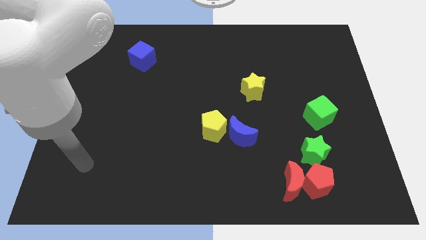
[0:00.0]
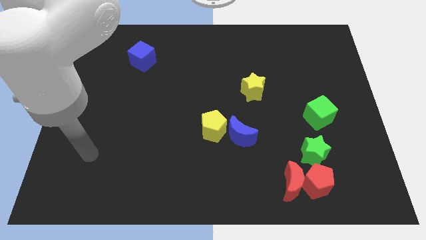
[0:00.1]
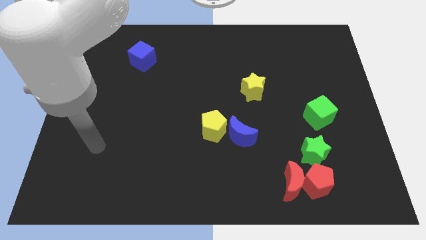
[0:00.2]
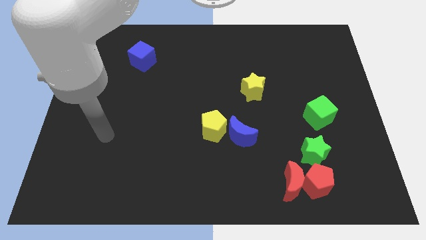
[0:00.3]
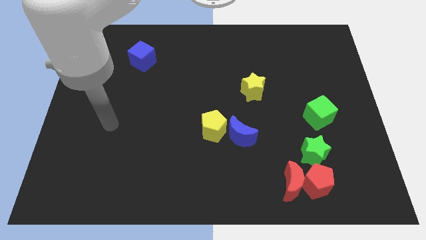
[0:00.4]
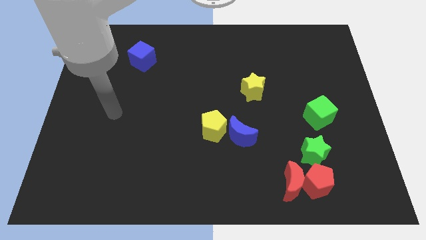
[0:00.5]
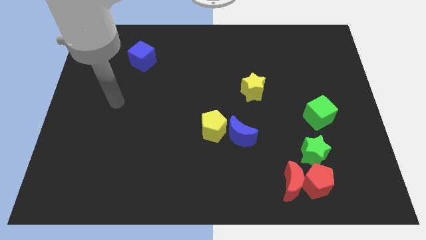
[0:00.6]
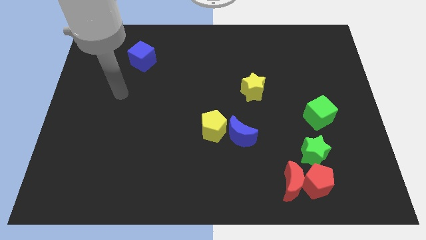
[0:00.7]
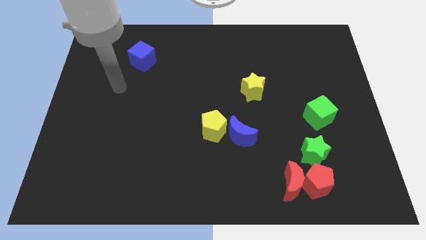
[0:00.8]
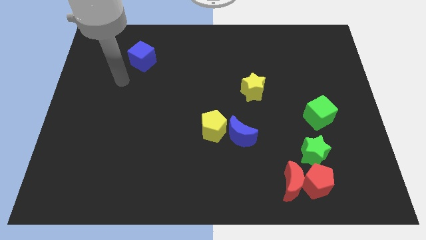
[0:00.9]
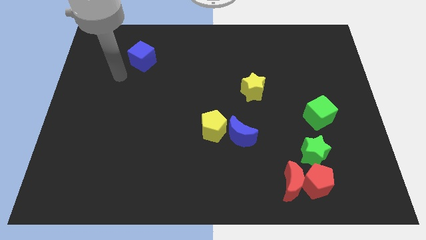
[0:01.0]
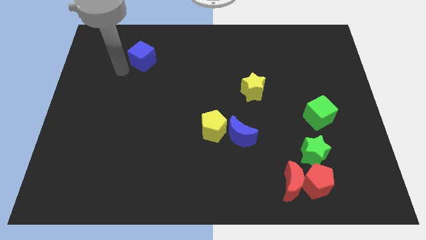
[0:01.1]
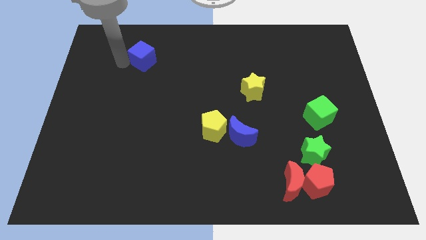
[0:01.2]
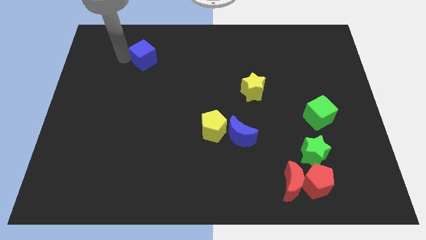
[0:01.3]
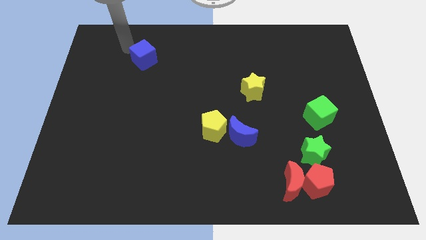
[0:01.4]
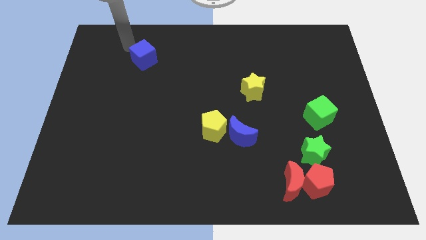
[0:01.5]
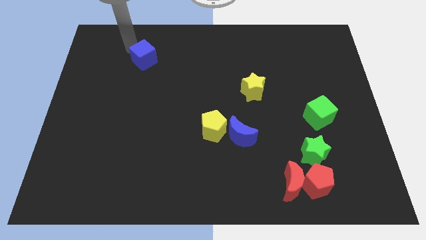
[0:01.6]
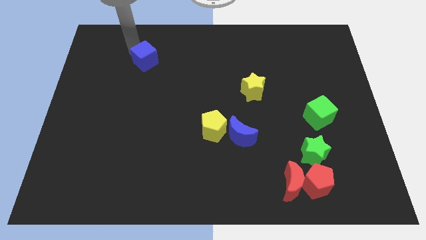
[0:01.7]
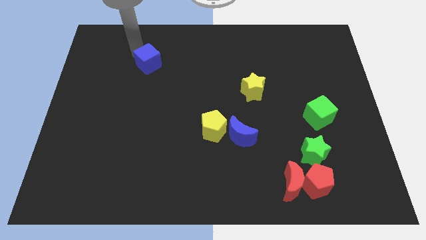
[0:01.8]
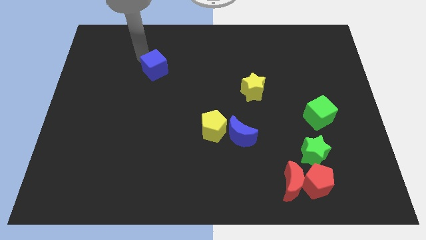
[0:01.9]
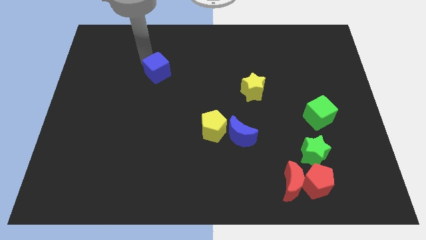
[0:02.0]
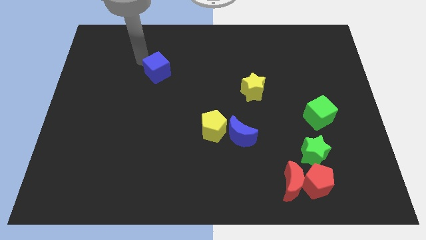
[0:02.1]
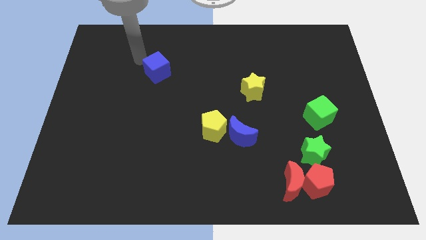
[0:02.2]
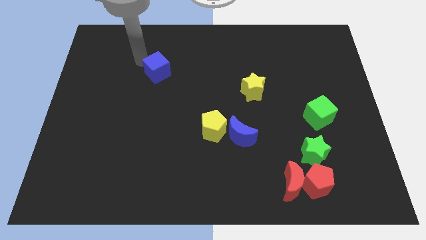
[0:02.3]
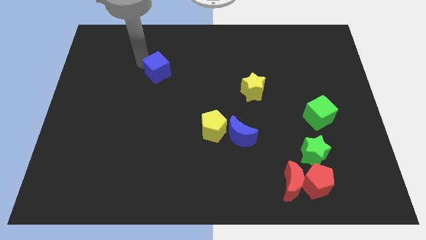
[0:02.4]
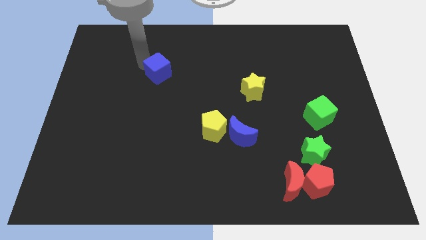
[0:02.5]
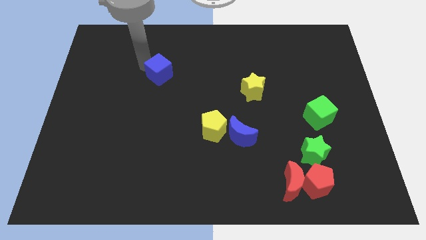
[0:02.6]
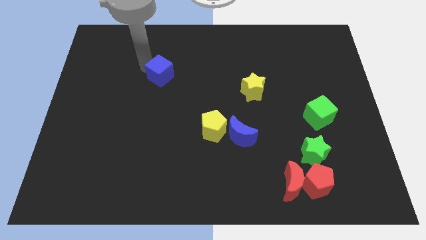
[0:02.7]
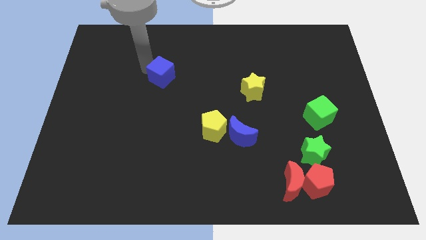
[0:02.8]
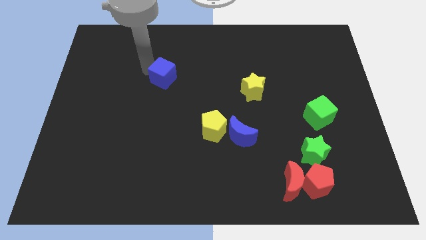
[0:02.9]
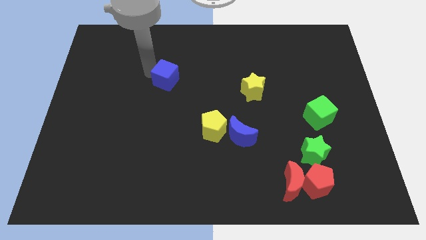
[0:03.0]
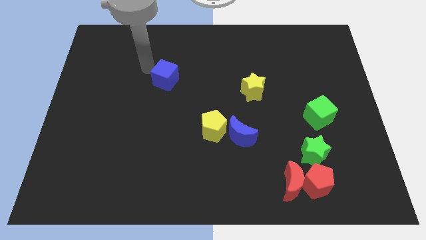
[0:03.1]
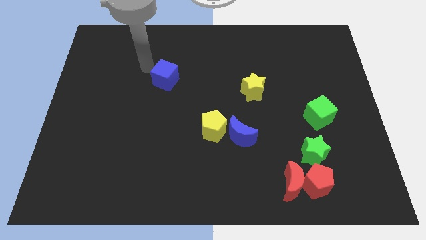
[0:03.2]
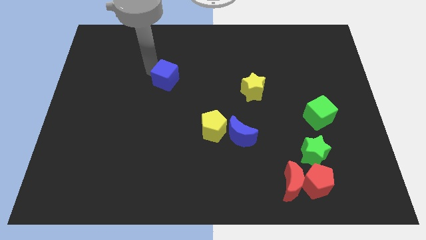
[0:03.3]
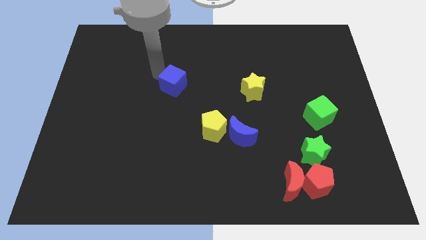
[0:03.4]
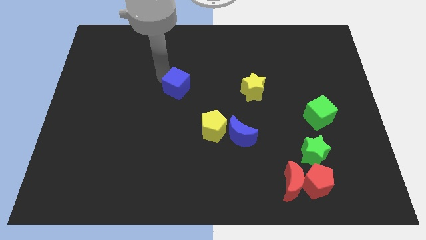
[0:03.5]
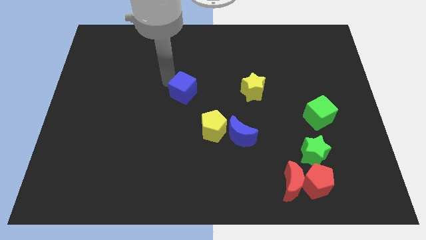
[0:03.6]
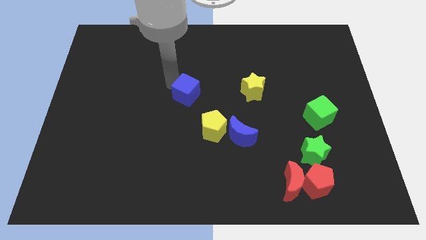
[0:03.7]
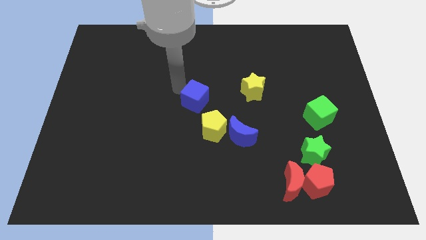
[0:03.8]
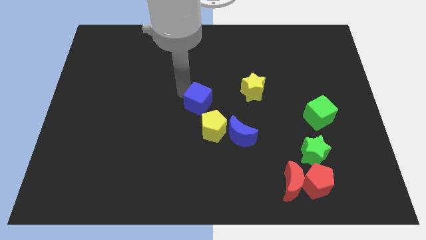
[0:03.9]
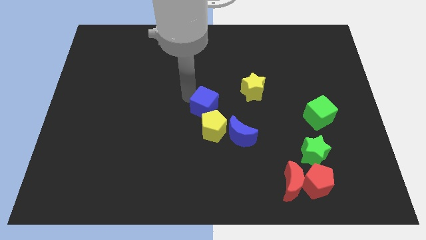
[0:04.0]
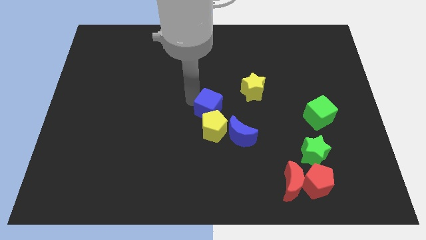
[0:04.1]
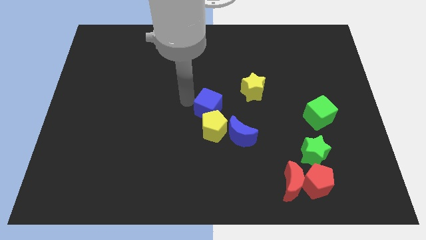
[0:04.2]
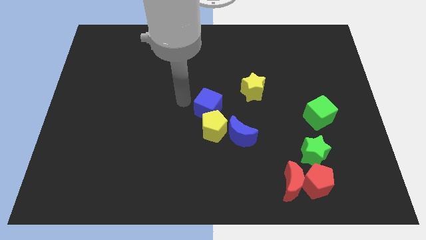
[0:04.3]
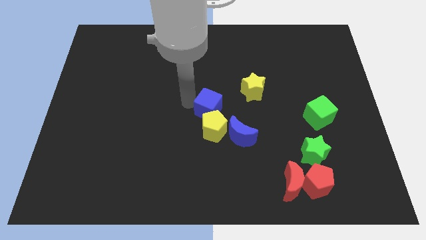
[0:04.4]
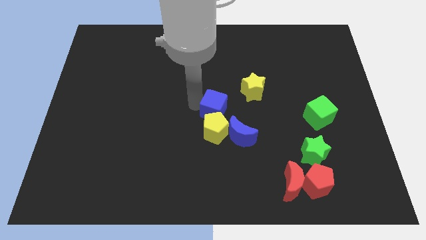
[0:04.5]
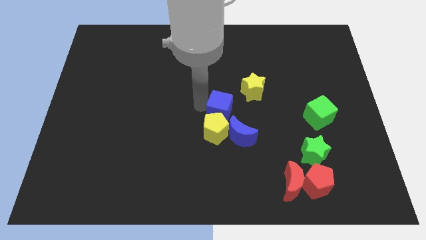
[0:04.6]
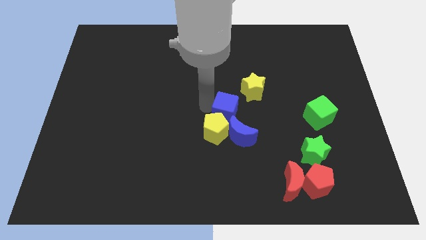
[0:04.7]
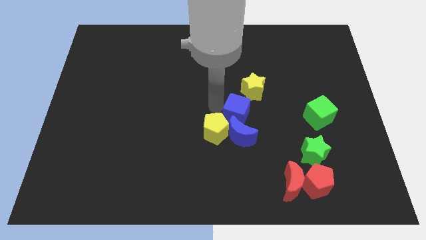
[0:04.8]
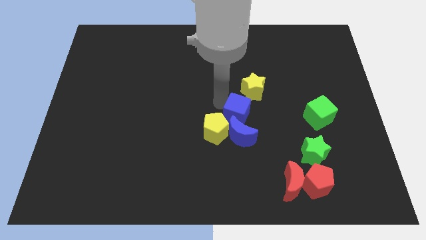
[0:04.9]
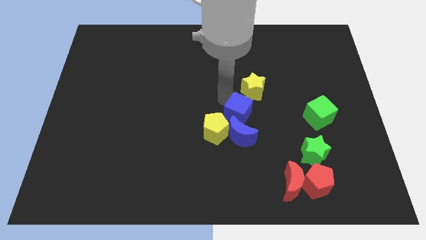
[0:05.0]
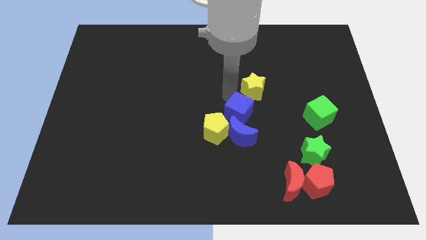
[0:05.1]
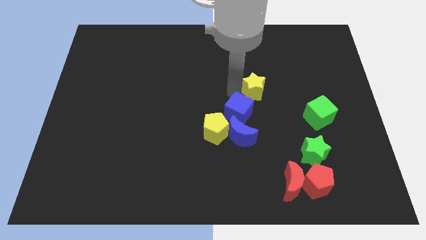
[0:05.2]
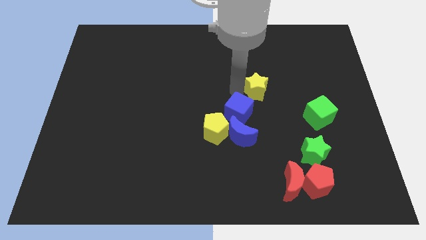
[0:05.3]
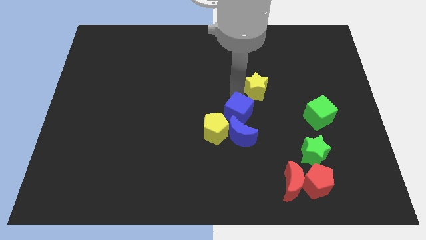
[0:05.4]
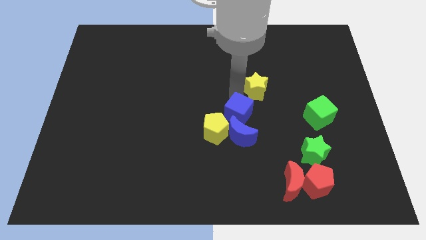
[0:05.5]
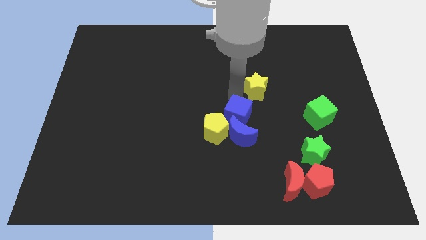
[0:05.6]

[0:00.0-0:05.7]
slide the blue cube to the blue moon

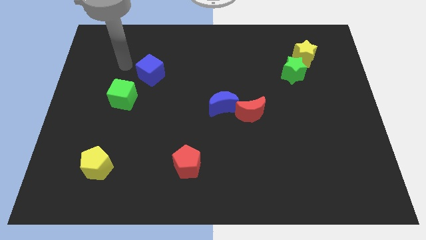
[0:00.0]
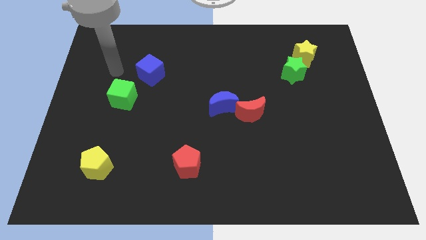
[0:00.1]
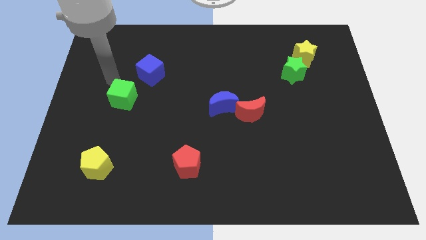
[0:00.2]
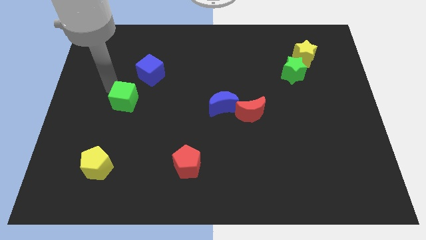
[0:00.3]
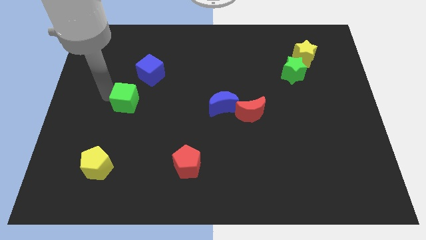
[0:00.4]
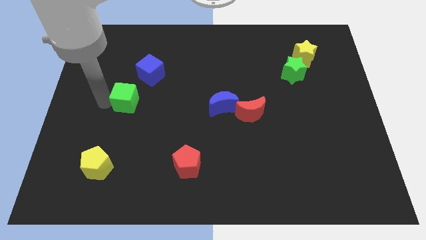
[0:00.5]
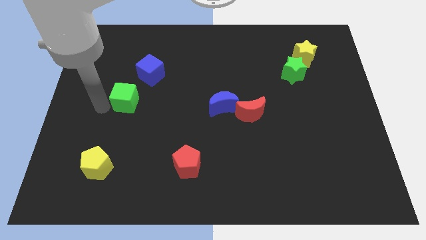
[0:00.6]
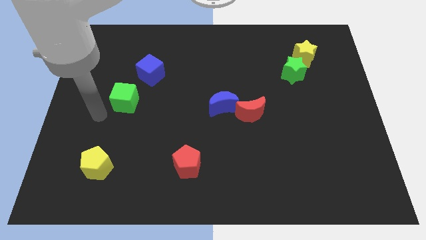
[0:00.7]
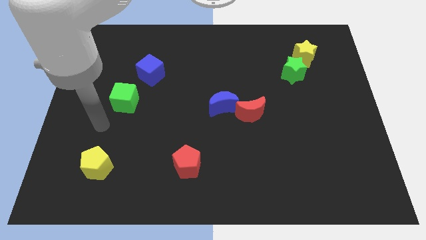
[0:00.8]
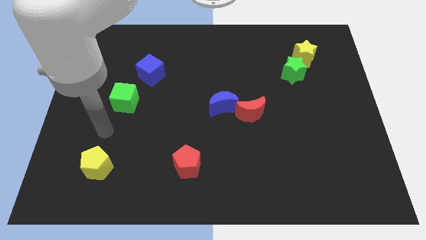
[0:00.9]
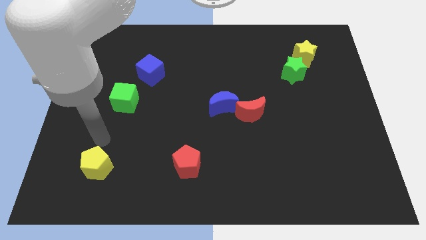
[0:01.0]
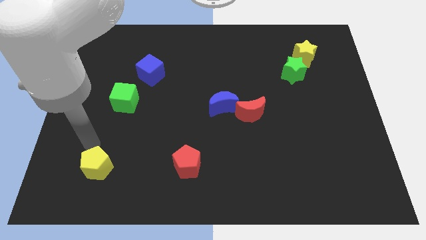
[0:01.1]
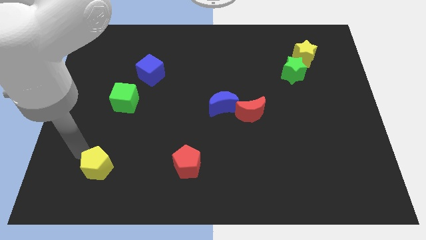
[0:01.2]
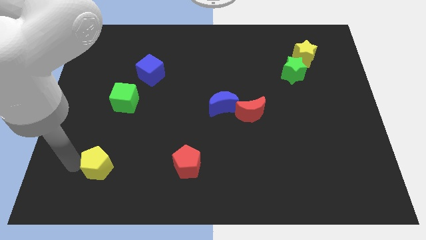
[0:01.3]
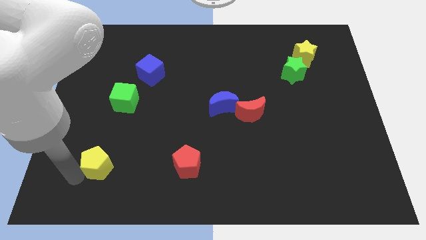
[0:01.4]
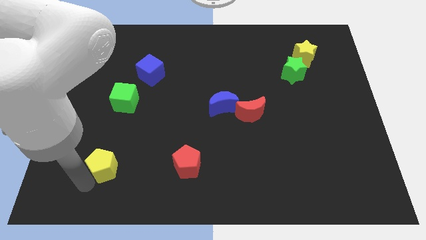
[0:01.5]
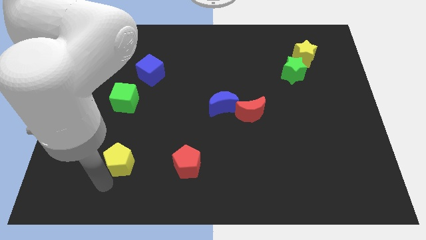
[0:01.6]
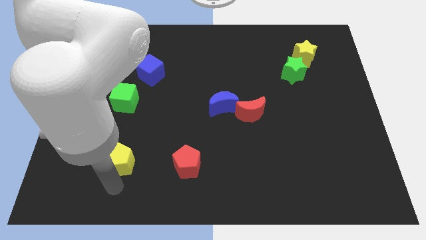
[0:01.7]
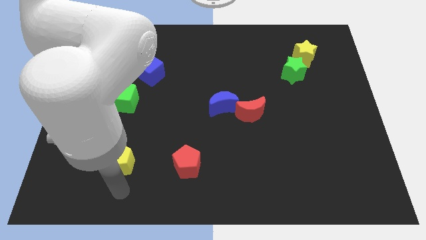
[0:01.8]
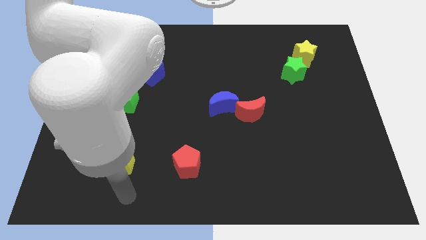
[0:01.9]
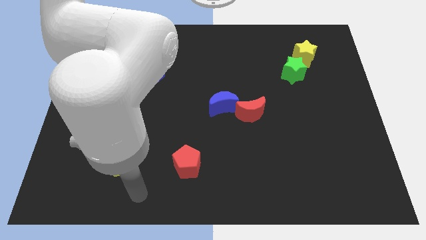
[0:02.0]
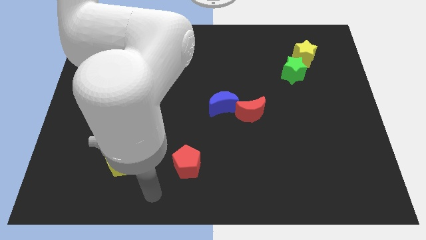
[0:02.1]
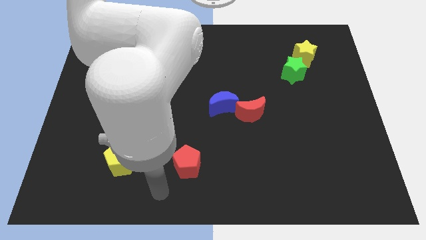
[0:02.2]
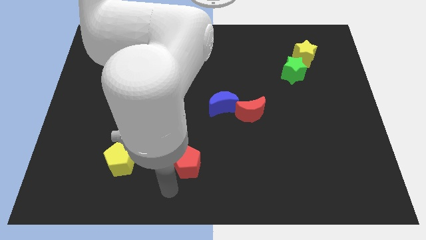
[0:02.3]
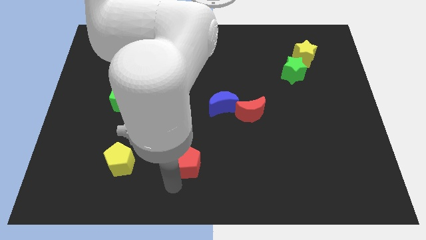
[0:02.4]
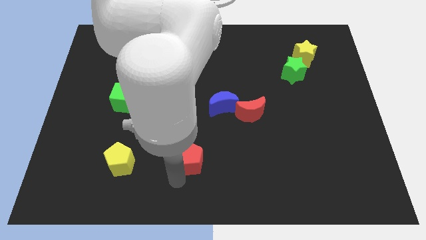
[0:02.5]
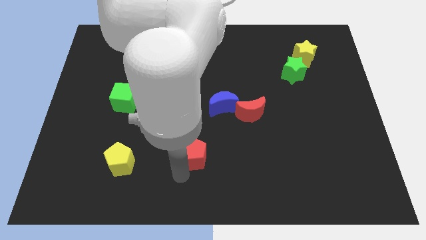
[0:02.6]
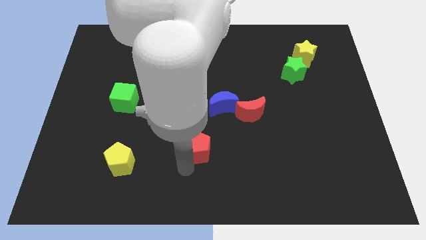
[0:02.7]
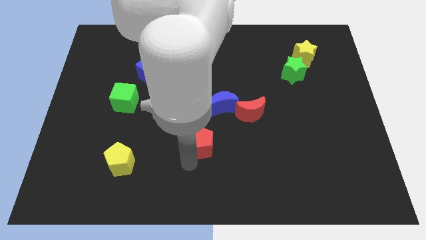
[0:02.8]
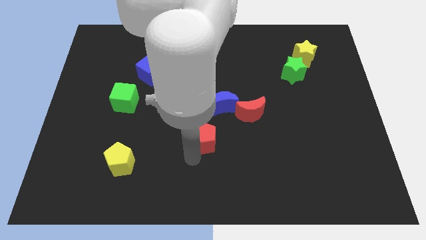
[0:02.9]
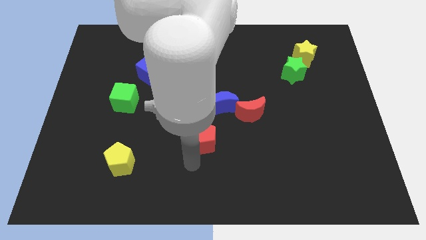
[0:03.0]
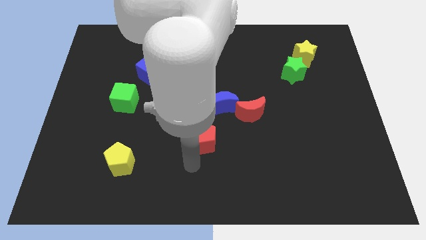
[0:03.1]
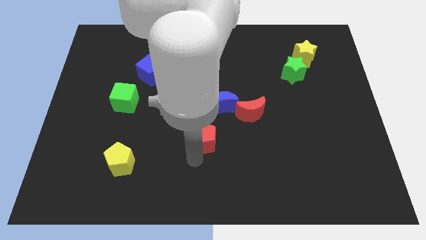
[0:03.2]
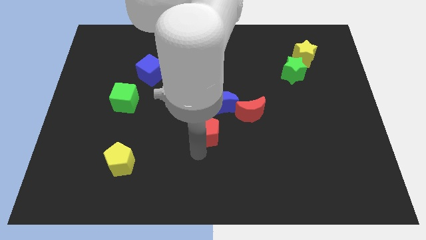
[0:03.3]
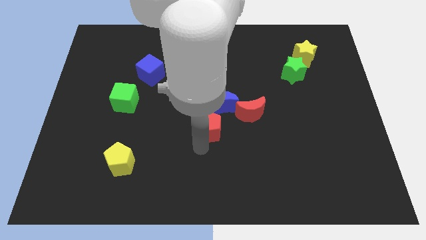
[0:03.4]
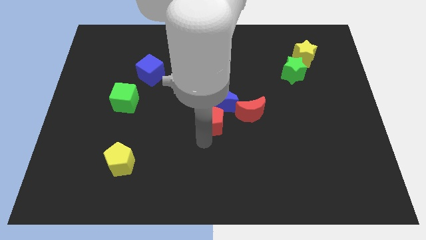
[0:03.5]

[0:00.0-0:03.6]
move the red pentagon to the blue moon
